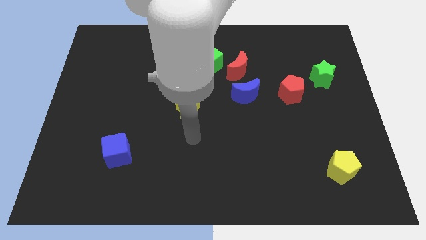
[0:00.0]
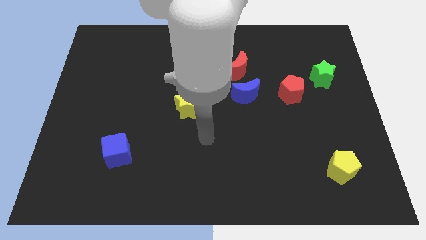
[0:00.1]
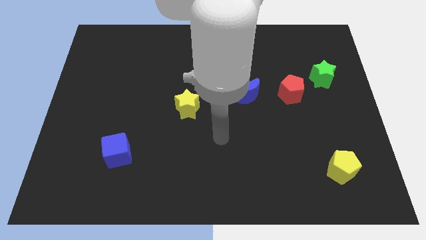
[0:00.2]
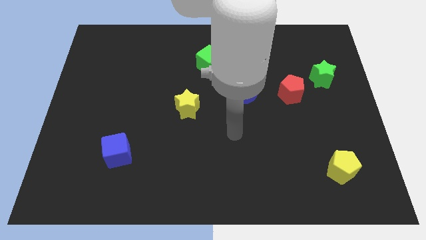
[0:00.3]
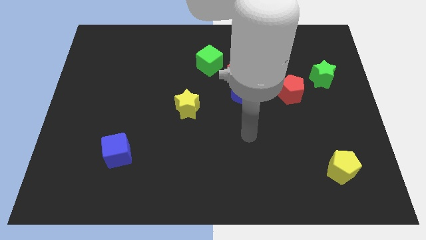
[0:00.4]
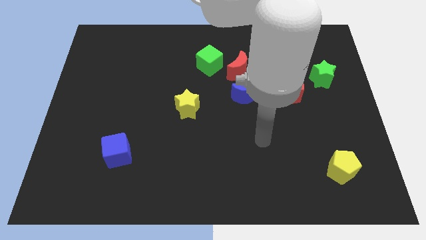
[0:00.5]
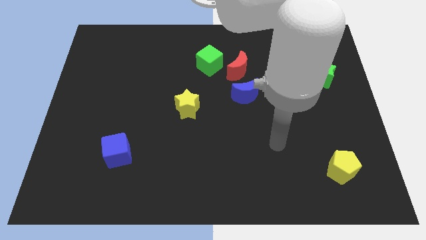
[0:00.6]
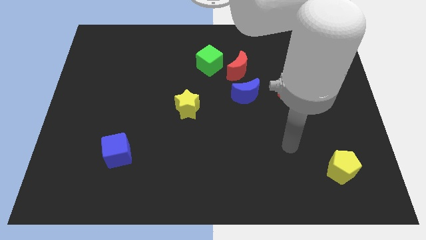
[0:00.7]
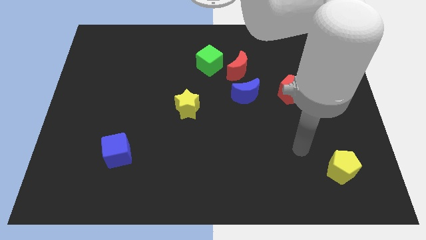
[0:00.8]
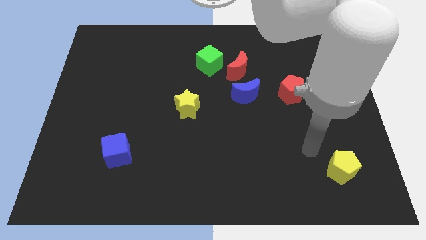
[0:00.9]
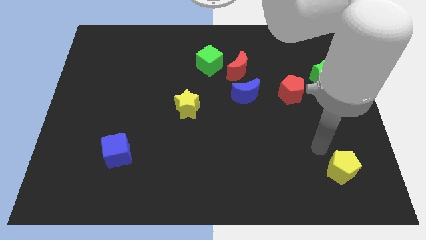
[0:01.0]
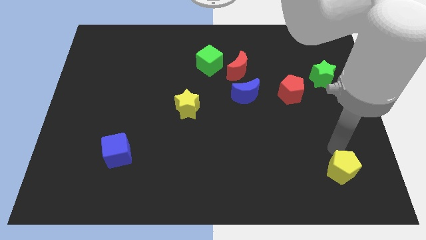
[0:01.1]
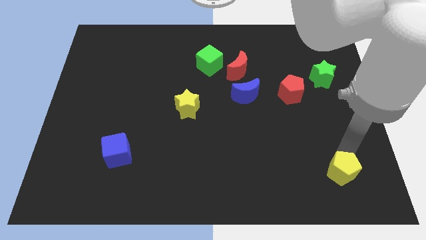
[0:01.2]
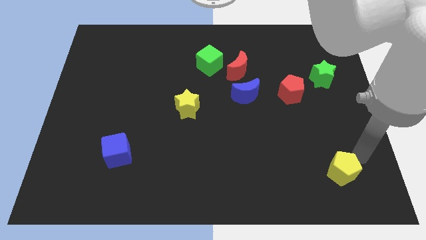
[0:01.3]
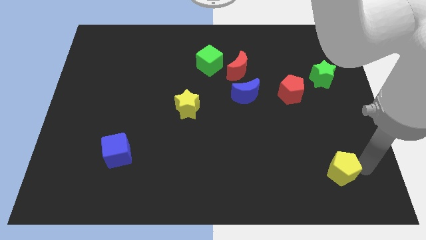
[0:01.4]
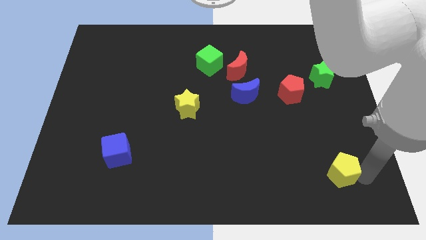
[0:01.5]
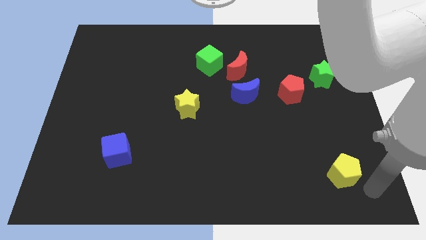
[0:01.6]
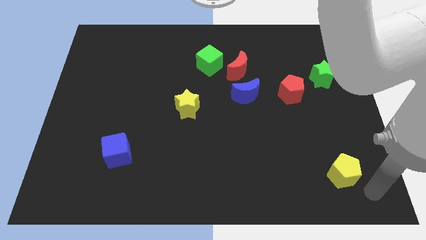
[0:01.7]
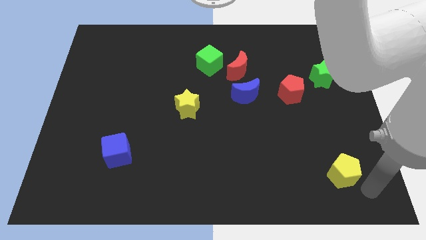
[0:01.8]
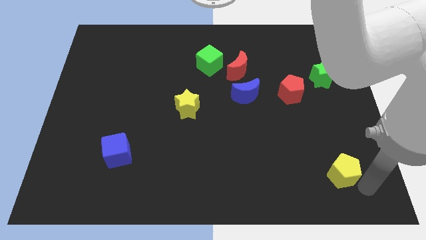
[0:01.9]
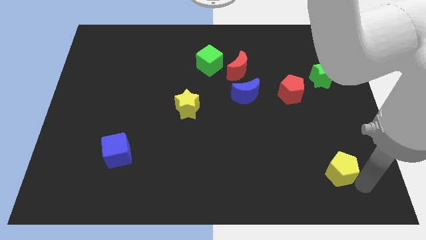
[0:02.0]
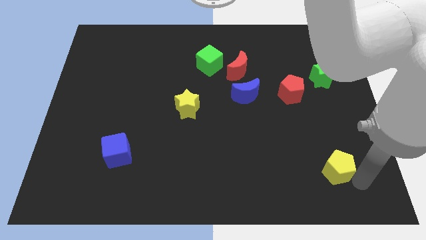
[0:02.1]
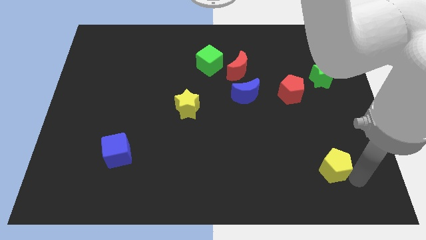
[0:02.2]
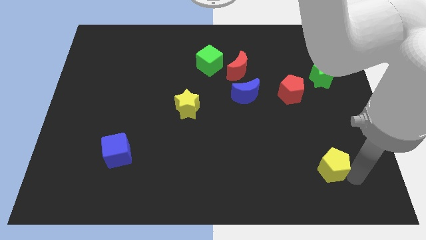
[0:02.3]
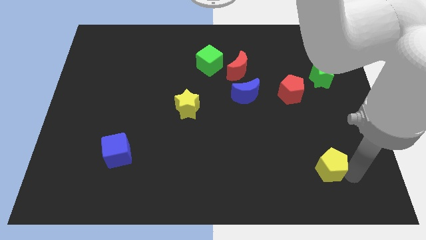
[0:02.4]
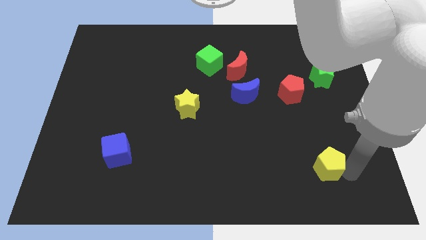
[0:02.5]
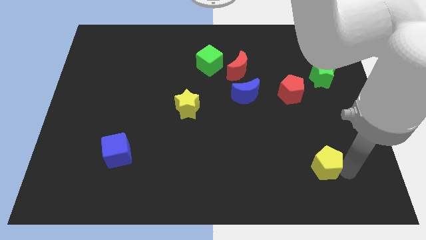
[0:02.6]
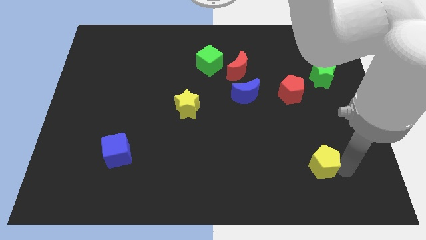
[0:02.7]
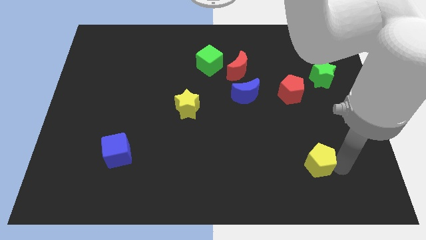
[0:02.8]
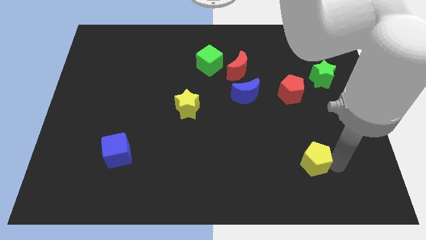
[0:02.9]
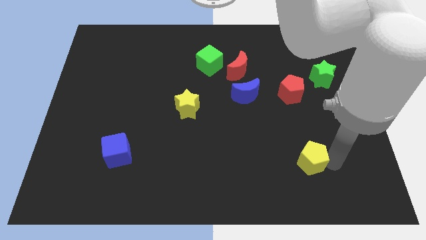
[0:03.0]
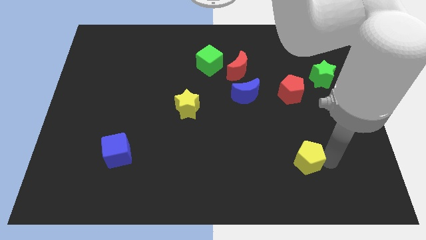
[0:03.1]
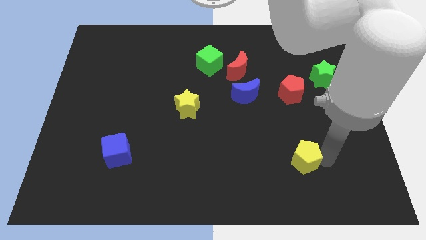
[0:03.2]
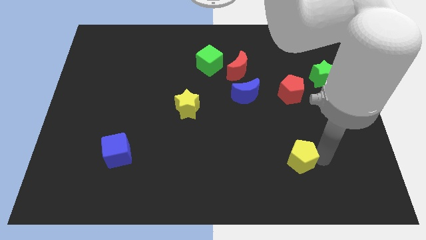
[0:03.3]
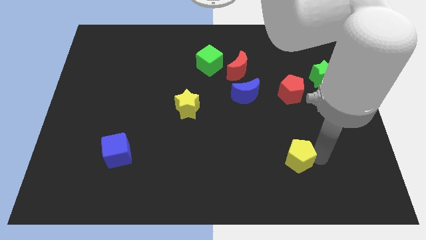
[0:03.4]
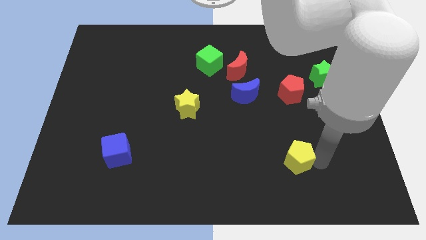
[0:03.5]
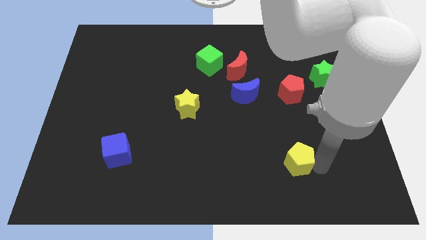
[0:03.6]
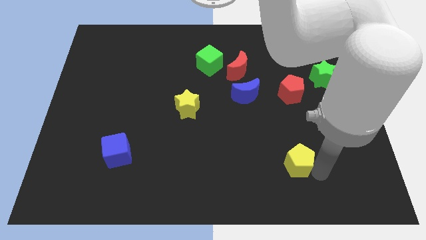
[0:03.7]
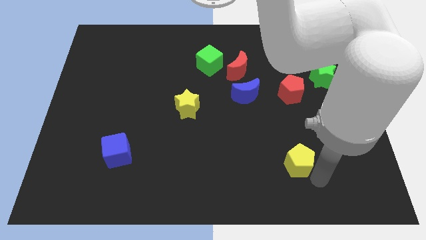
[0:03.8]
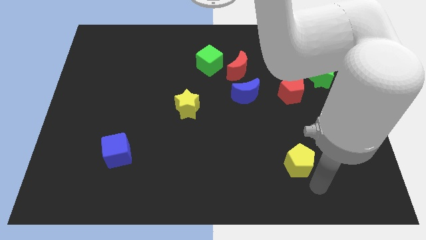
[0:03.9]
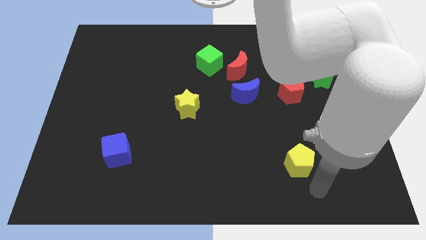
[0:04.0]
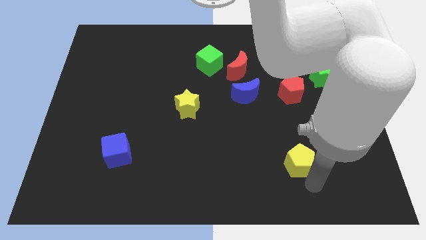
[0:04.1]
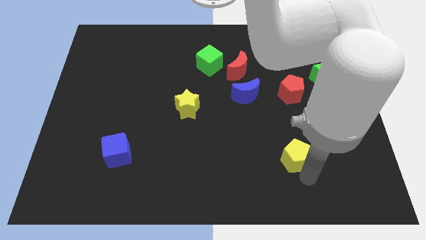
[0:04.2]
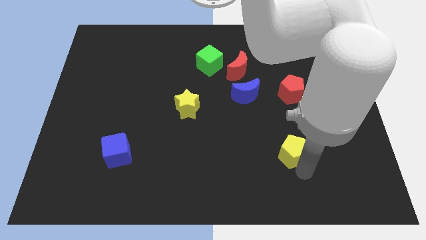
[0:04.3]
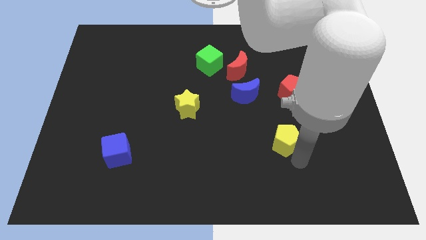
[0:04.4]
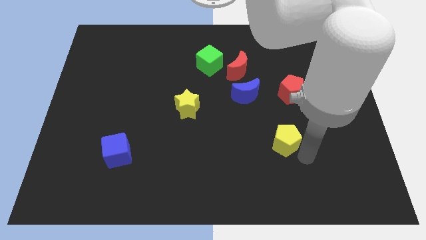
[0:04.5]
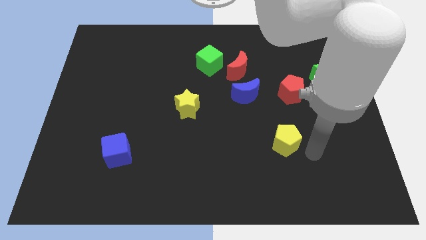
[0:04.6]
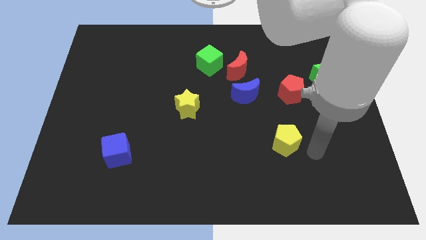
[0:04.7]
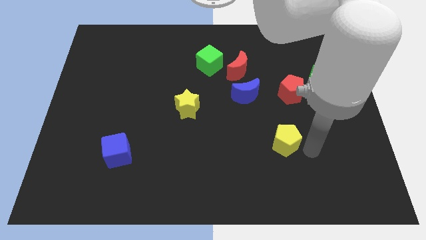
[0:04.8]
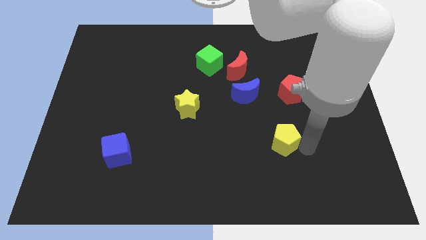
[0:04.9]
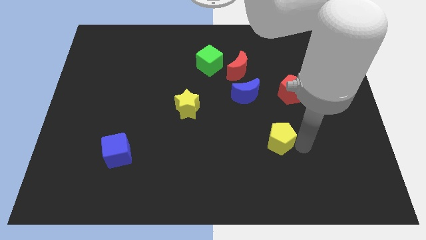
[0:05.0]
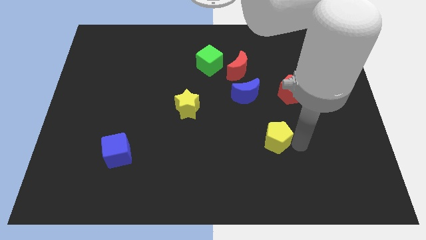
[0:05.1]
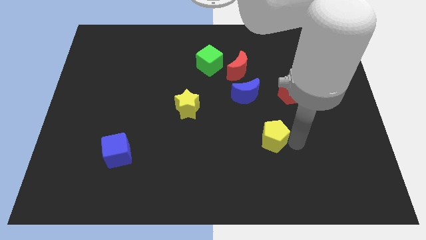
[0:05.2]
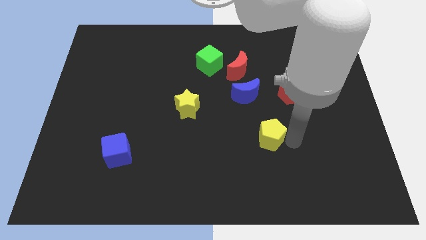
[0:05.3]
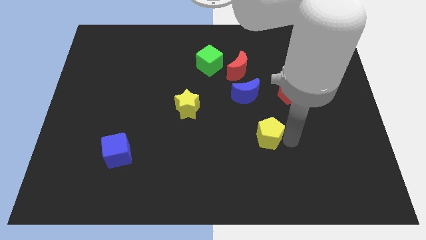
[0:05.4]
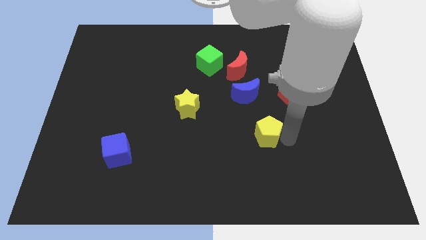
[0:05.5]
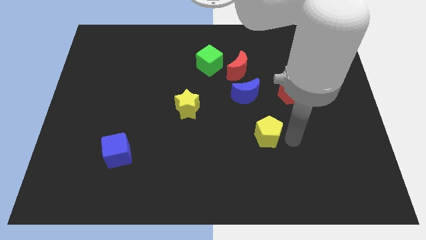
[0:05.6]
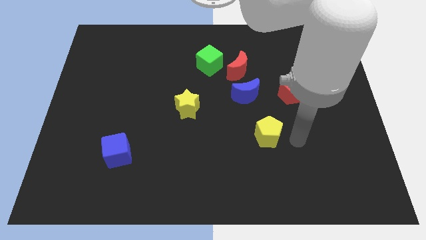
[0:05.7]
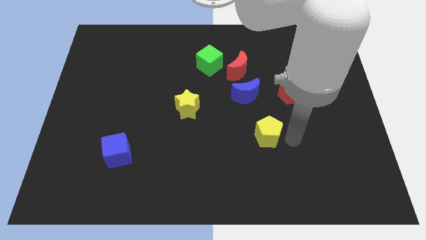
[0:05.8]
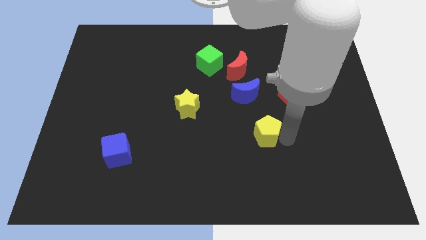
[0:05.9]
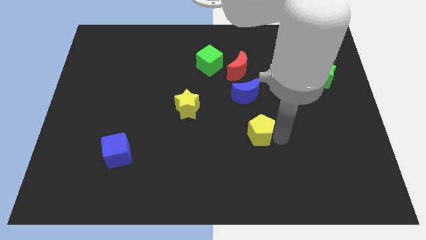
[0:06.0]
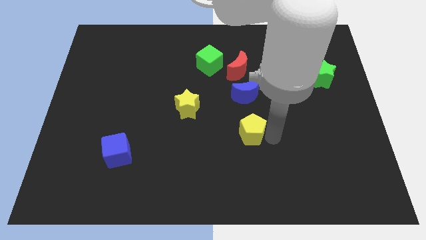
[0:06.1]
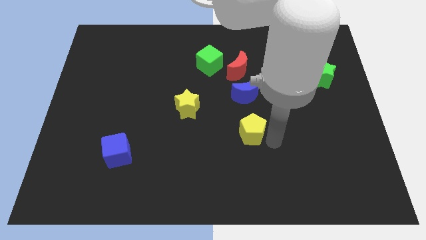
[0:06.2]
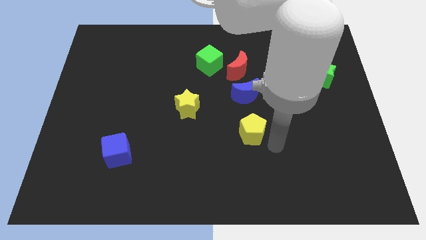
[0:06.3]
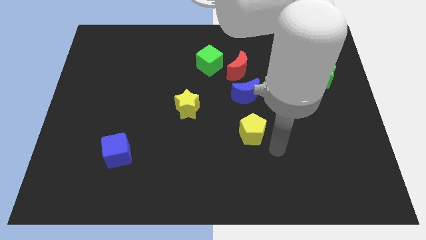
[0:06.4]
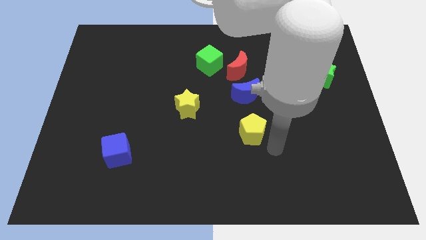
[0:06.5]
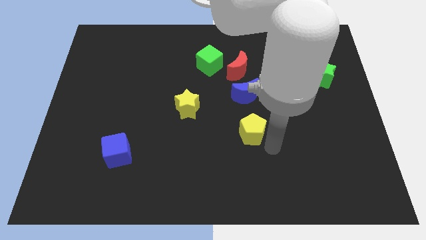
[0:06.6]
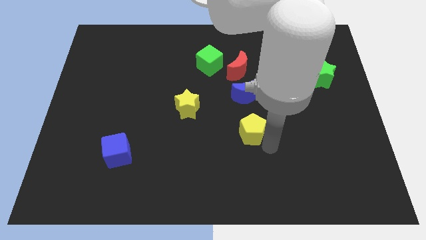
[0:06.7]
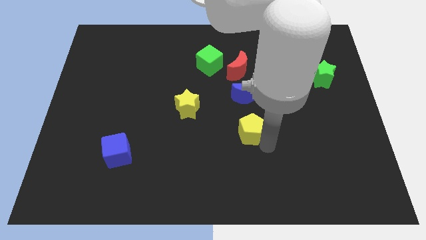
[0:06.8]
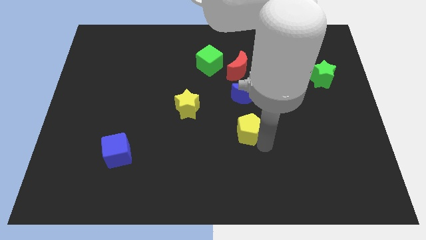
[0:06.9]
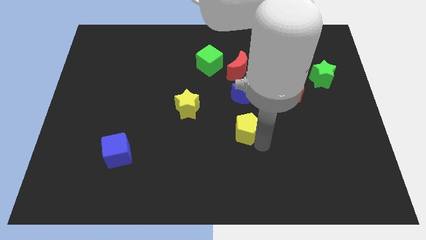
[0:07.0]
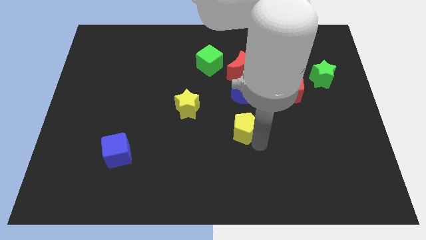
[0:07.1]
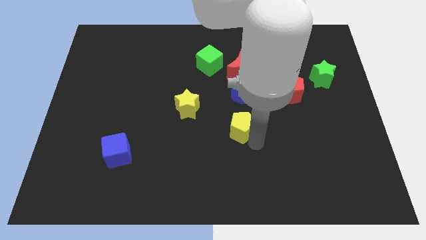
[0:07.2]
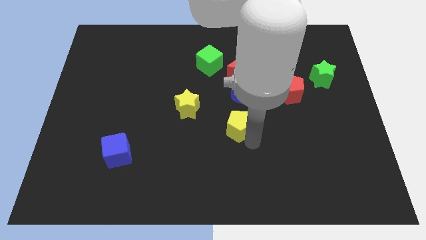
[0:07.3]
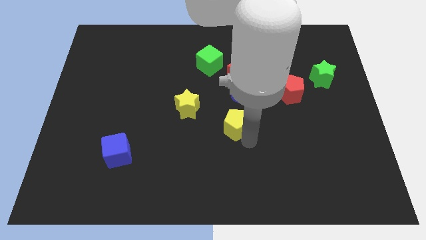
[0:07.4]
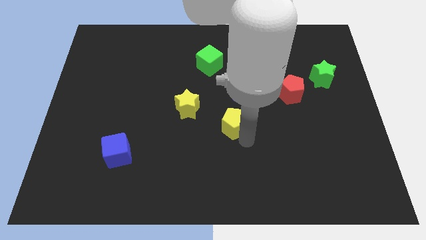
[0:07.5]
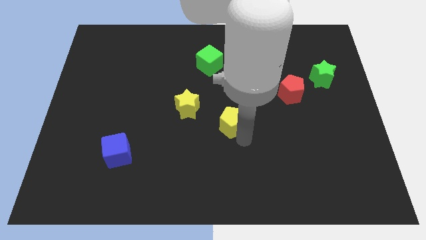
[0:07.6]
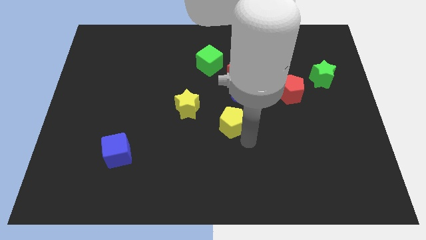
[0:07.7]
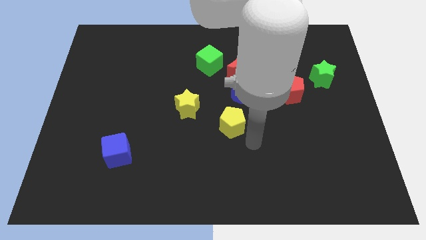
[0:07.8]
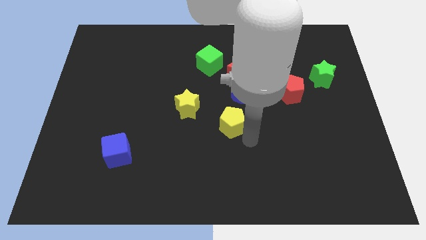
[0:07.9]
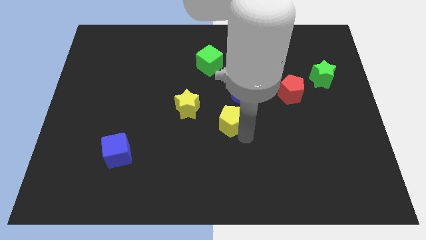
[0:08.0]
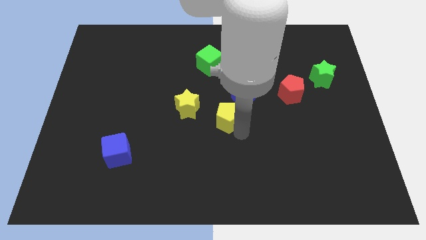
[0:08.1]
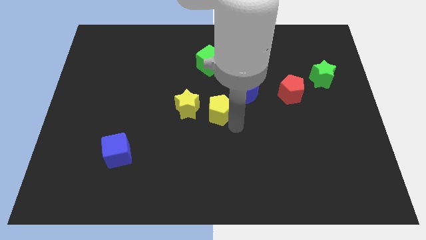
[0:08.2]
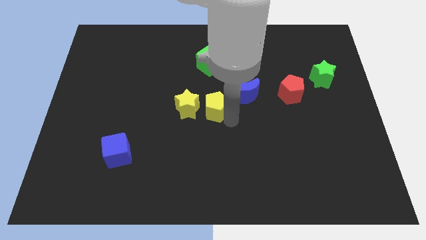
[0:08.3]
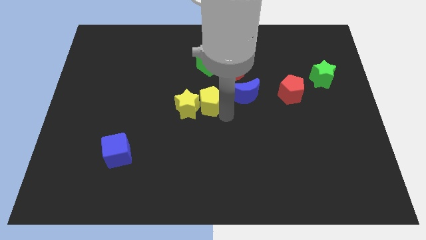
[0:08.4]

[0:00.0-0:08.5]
put the yellow pentagon to the yellow star
